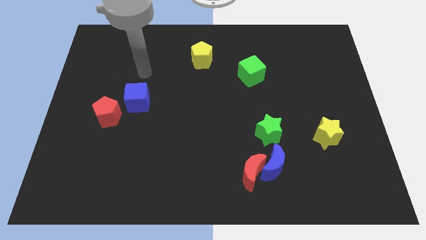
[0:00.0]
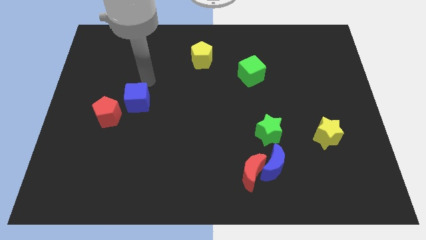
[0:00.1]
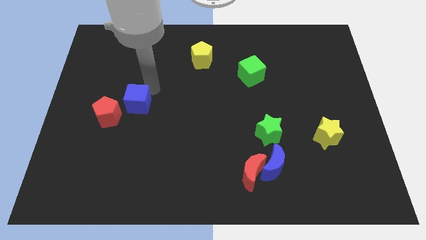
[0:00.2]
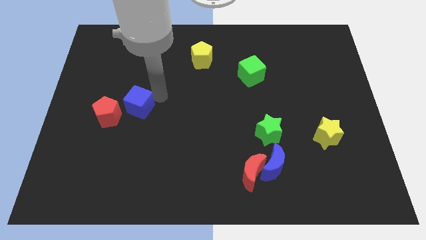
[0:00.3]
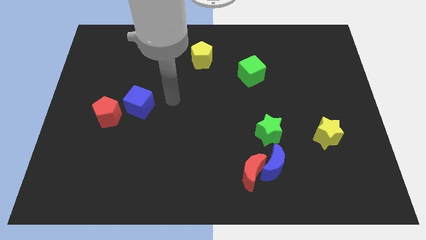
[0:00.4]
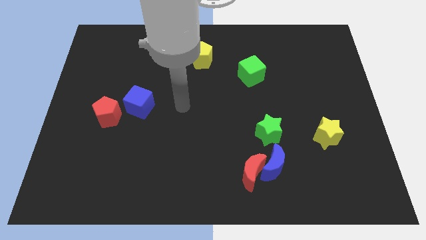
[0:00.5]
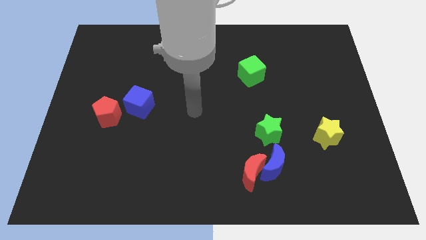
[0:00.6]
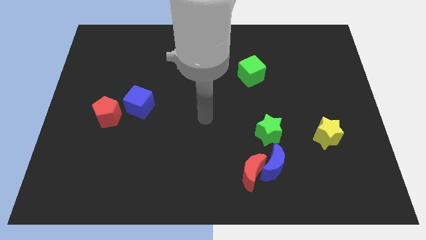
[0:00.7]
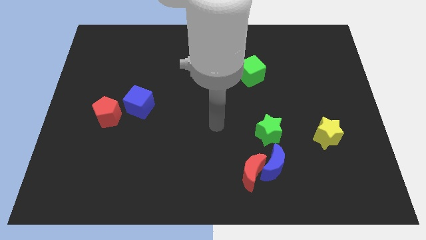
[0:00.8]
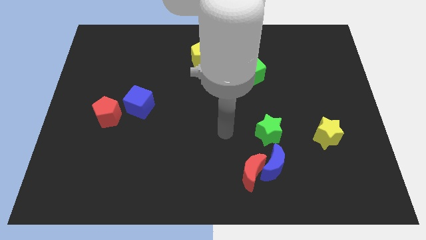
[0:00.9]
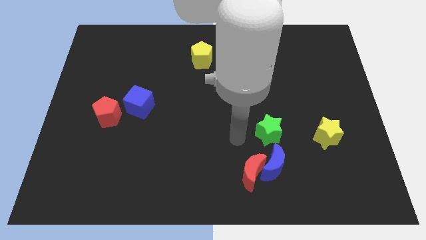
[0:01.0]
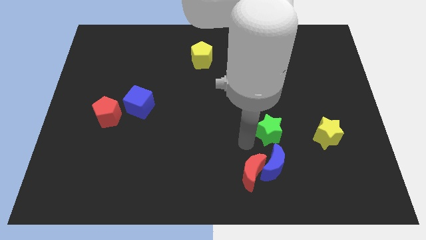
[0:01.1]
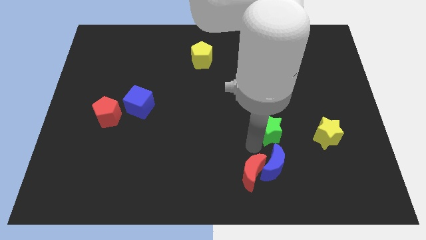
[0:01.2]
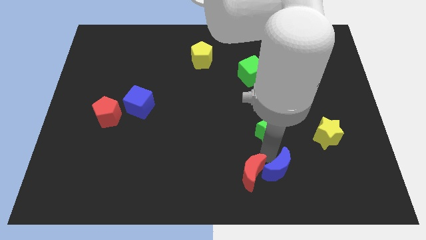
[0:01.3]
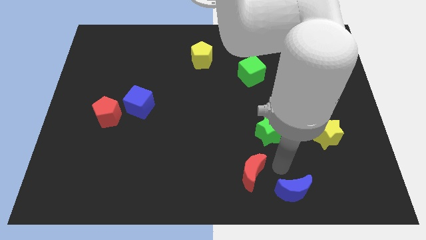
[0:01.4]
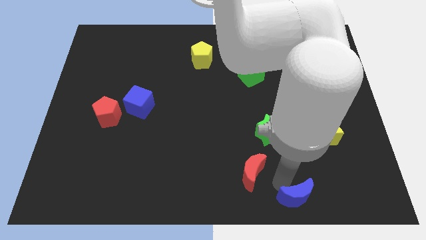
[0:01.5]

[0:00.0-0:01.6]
pull the red moon apart from the blue moon

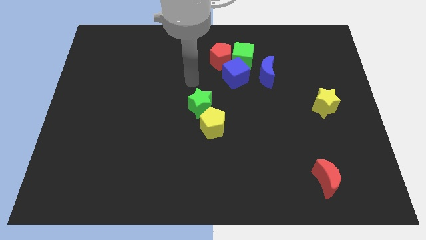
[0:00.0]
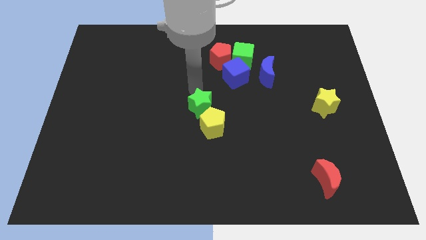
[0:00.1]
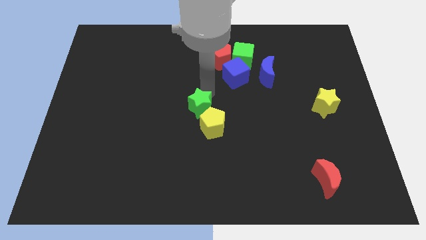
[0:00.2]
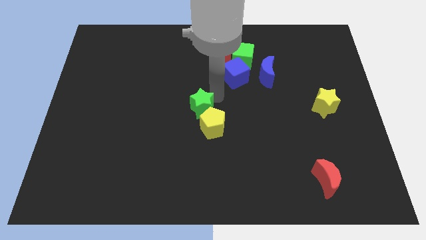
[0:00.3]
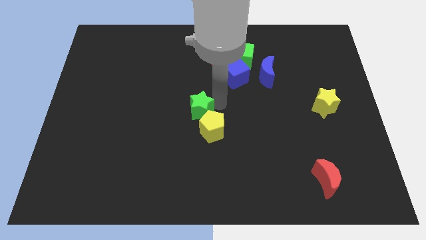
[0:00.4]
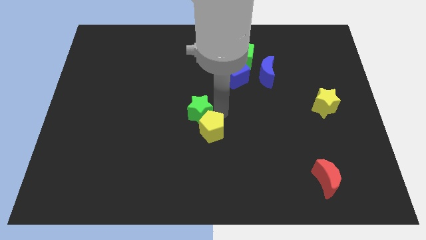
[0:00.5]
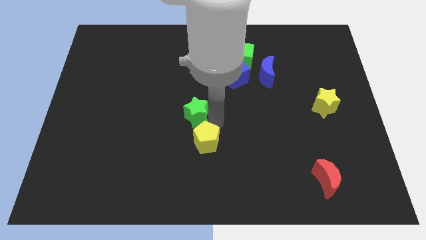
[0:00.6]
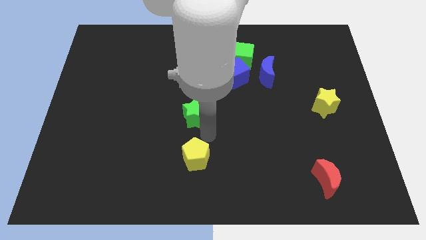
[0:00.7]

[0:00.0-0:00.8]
separate the green star from the yellow pentagon

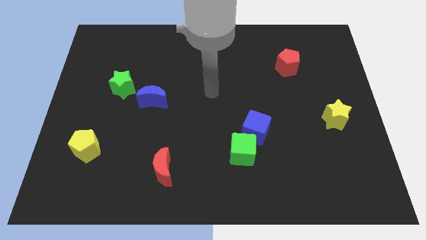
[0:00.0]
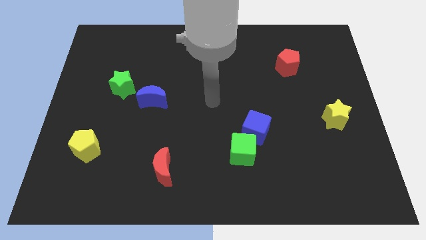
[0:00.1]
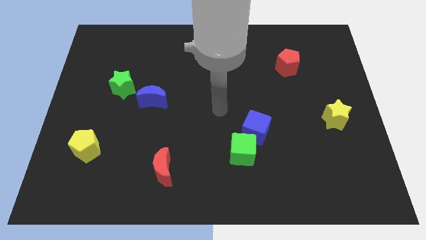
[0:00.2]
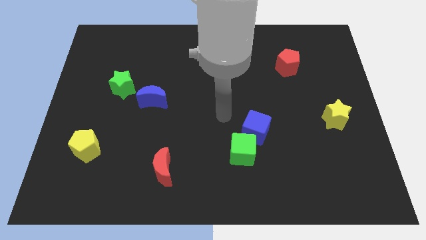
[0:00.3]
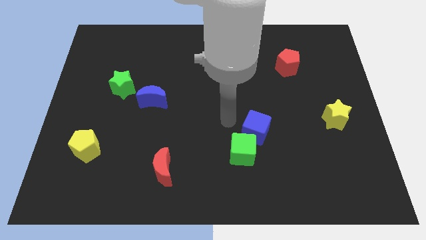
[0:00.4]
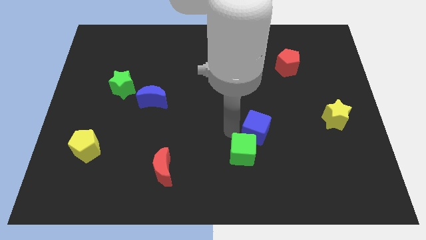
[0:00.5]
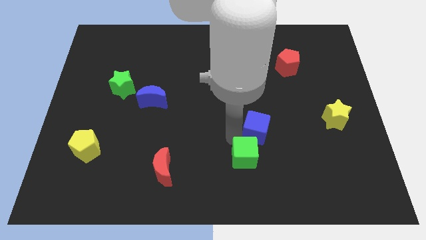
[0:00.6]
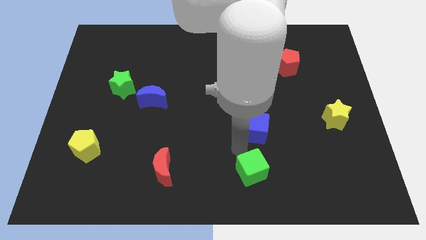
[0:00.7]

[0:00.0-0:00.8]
separate the blue cube from the green cube

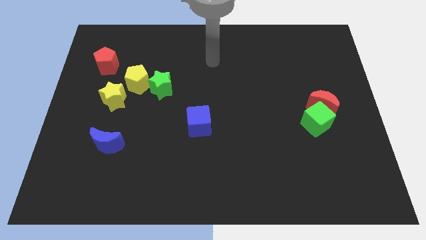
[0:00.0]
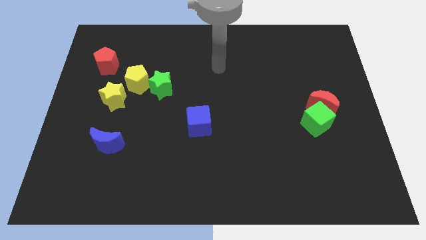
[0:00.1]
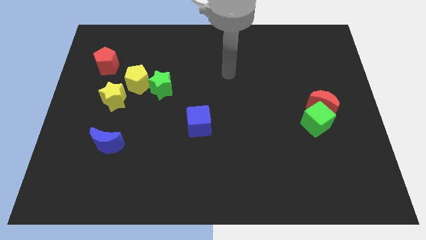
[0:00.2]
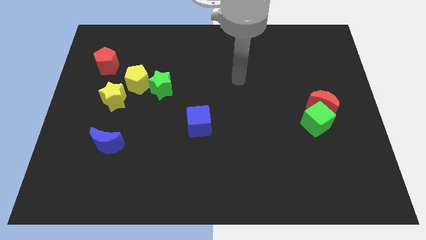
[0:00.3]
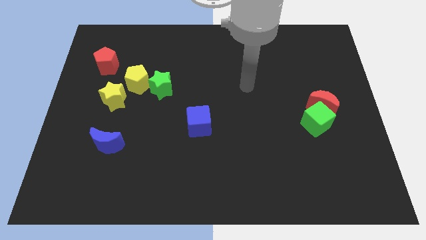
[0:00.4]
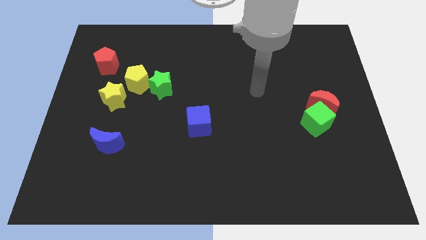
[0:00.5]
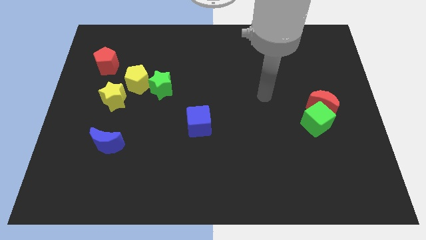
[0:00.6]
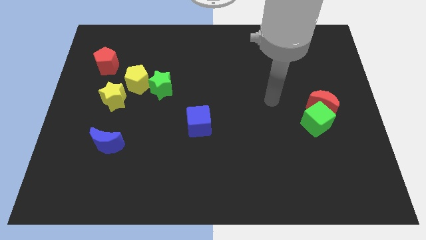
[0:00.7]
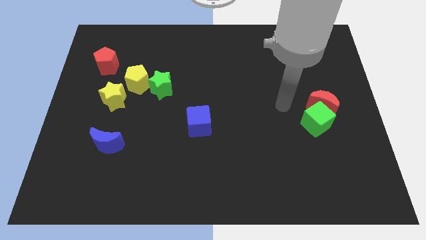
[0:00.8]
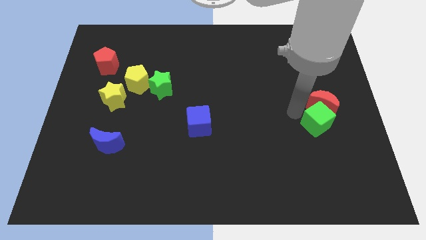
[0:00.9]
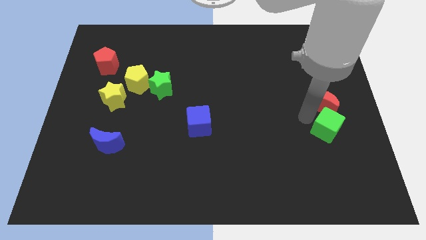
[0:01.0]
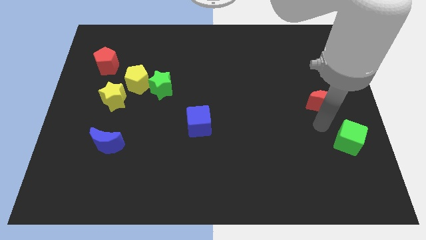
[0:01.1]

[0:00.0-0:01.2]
separate the red moon from the green cube

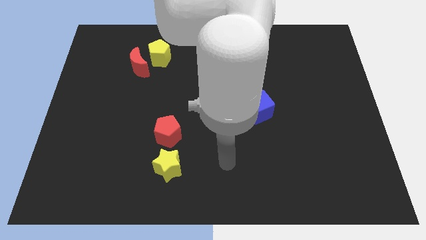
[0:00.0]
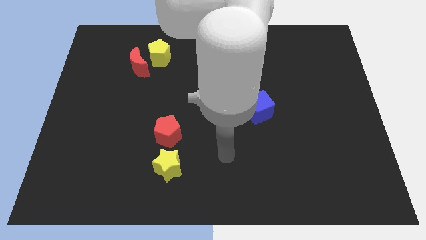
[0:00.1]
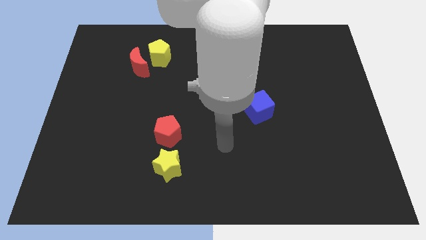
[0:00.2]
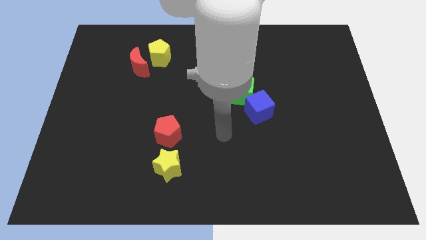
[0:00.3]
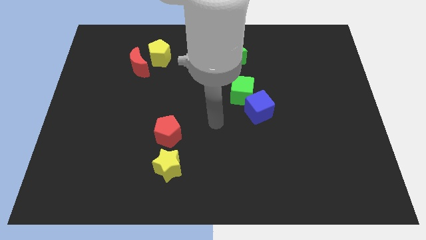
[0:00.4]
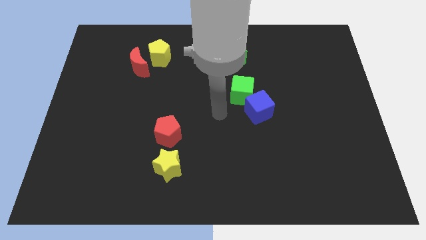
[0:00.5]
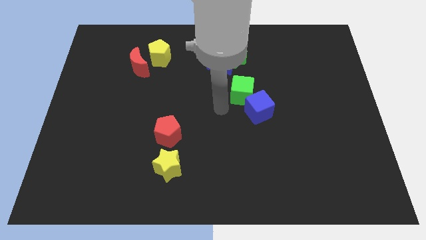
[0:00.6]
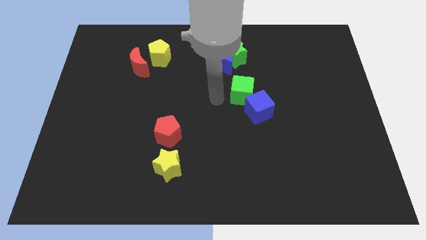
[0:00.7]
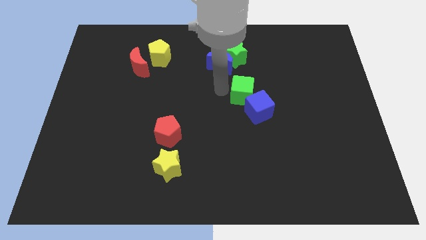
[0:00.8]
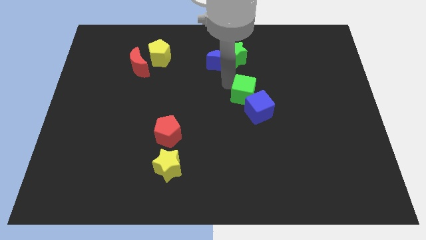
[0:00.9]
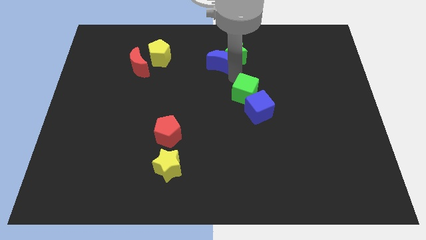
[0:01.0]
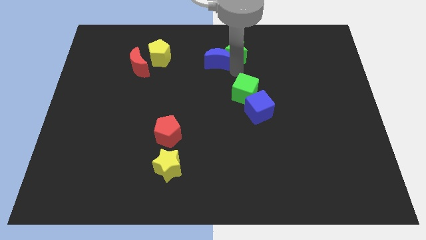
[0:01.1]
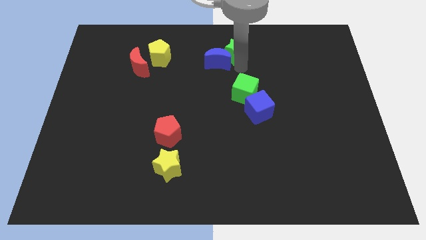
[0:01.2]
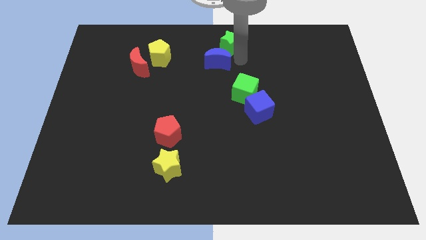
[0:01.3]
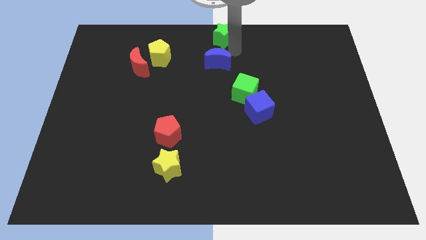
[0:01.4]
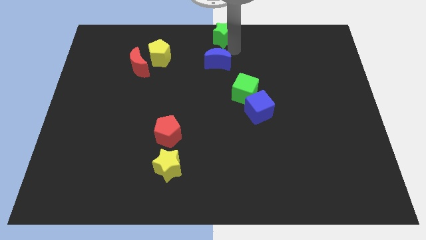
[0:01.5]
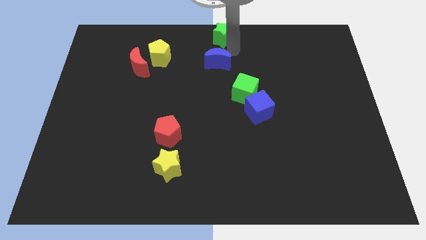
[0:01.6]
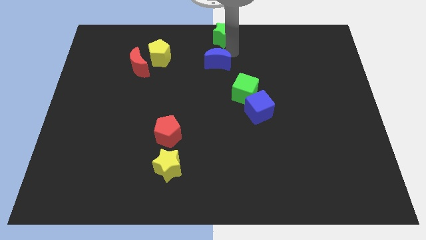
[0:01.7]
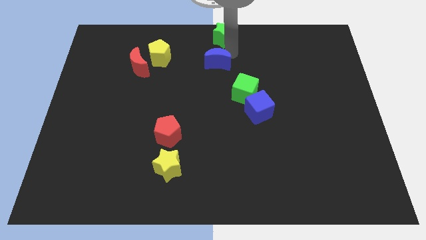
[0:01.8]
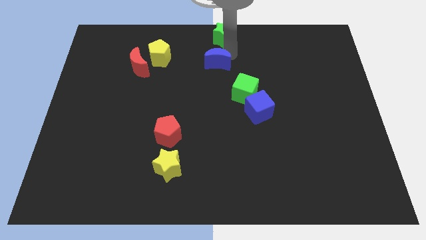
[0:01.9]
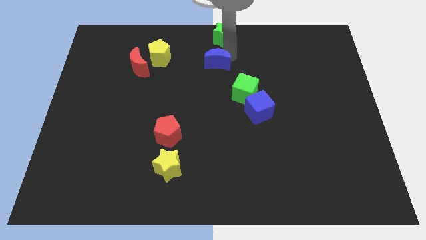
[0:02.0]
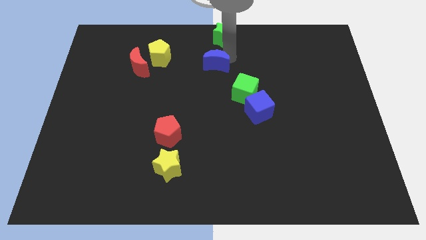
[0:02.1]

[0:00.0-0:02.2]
separate the blue moon from the green star

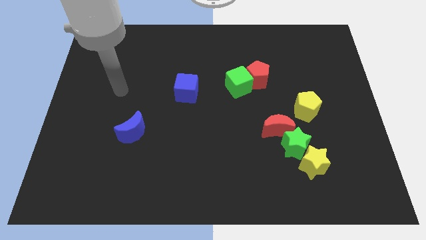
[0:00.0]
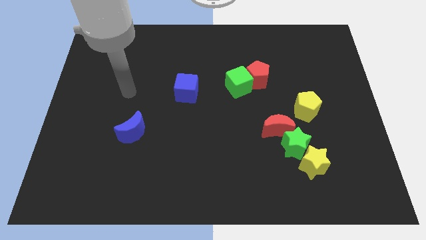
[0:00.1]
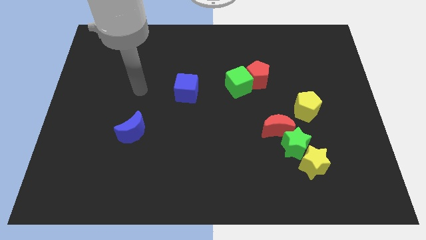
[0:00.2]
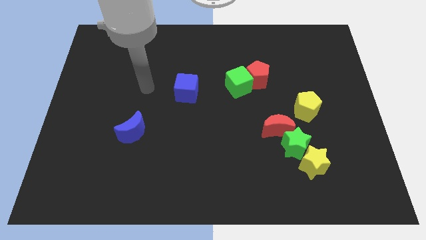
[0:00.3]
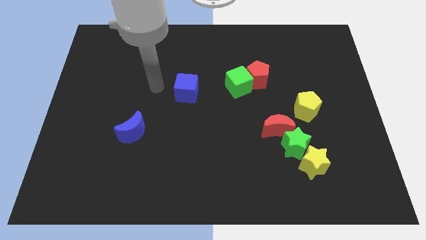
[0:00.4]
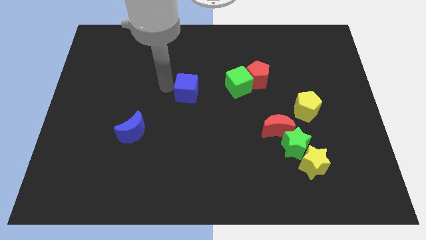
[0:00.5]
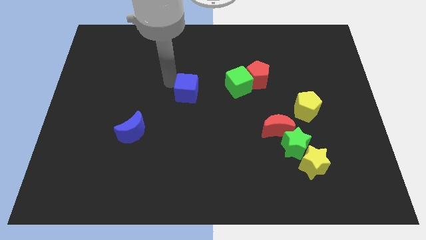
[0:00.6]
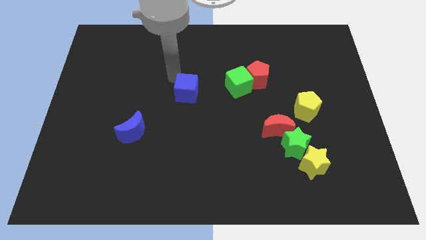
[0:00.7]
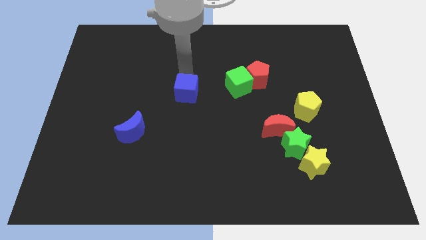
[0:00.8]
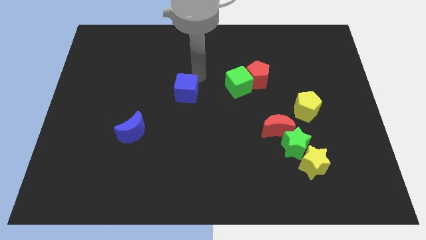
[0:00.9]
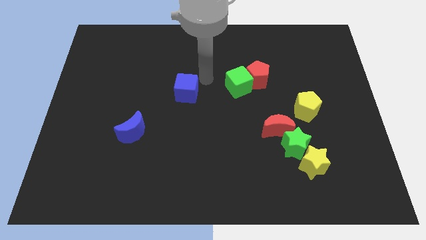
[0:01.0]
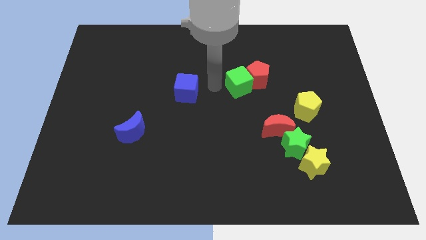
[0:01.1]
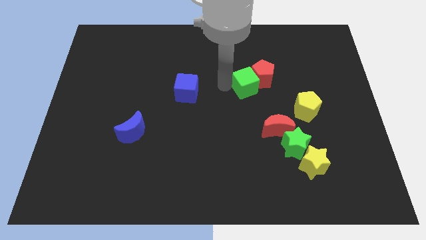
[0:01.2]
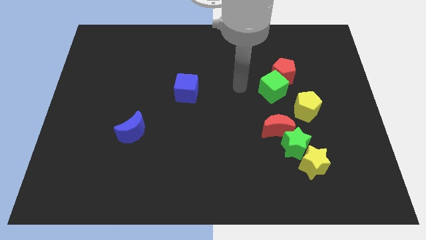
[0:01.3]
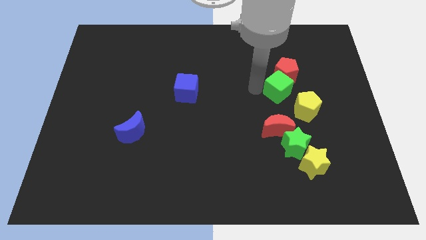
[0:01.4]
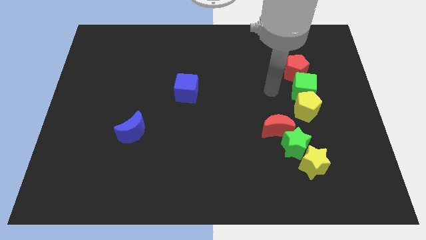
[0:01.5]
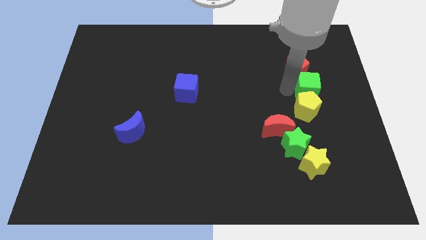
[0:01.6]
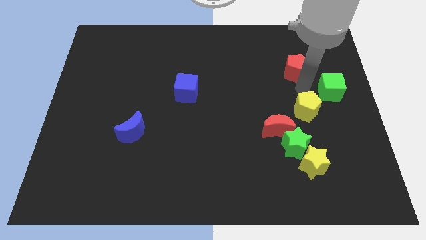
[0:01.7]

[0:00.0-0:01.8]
move the red pentagon away from the green cube

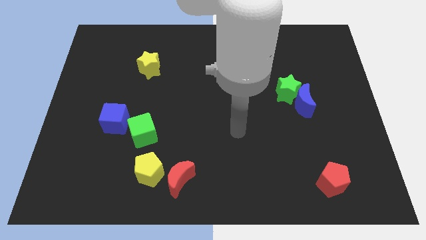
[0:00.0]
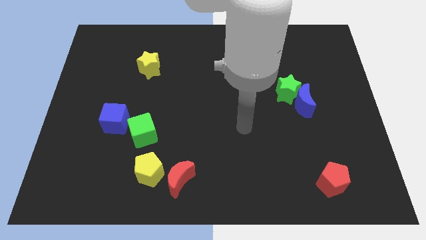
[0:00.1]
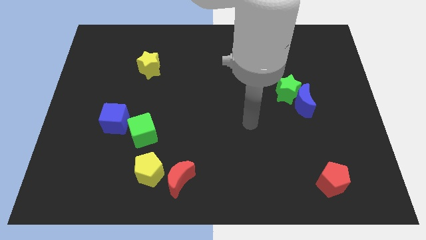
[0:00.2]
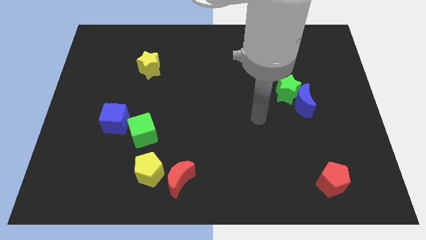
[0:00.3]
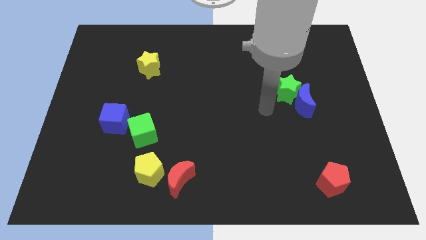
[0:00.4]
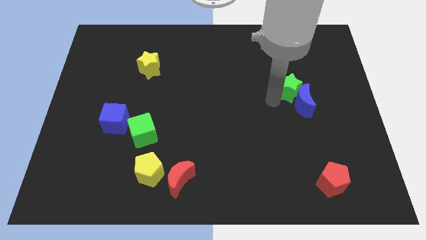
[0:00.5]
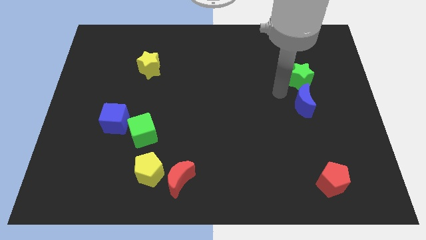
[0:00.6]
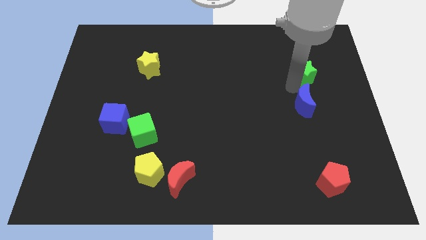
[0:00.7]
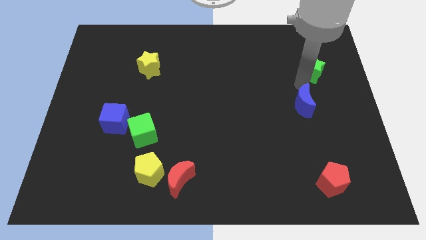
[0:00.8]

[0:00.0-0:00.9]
move the blue moon away from the green star
